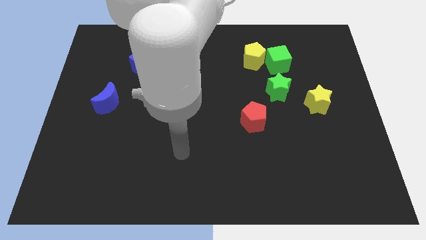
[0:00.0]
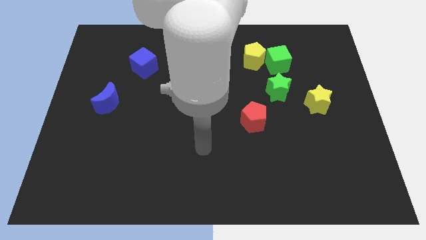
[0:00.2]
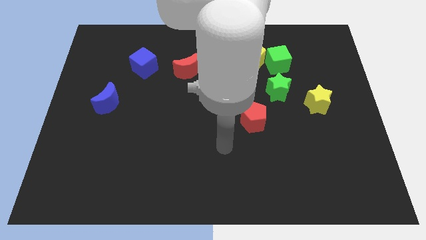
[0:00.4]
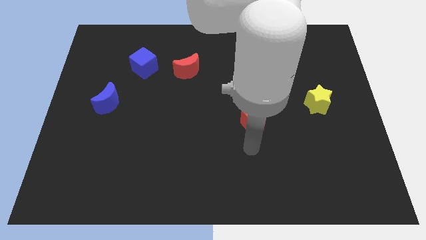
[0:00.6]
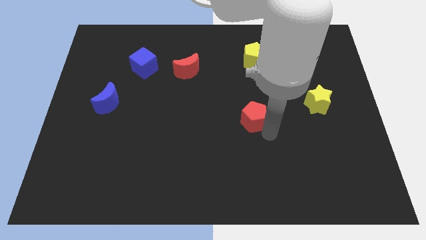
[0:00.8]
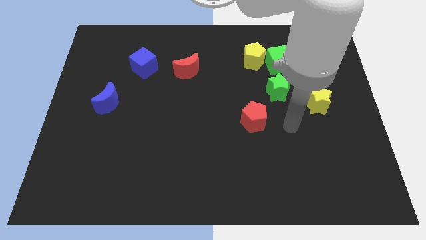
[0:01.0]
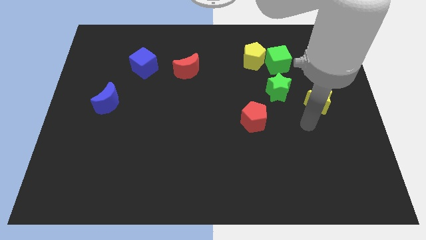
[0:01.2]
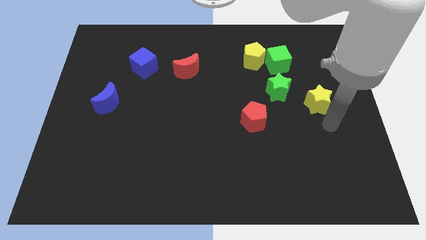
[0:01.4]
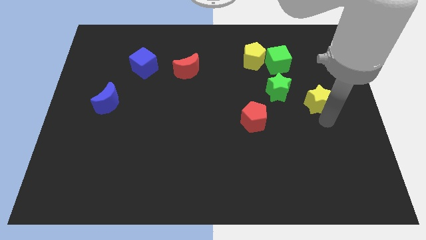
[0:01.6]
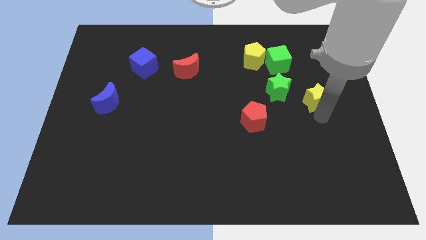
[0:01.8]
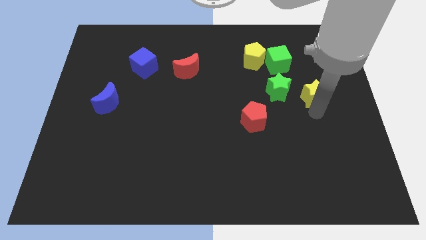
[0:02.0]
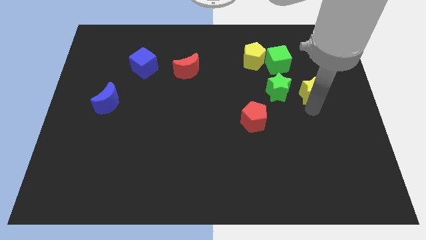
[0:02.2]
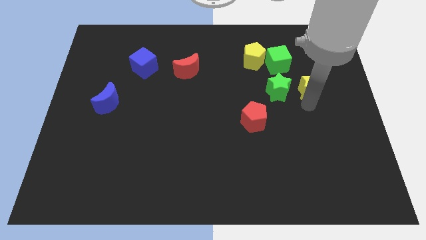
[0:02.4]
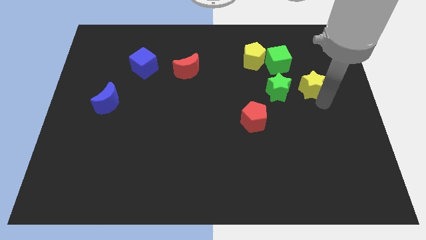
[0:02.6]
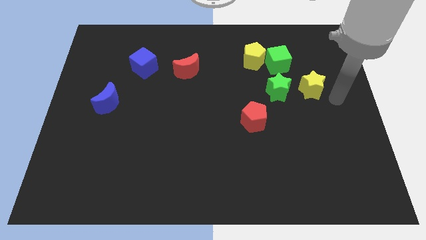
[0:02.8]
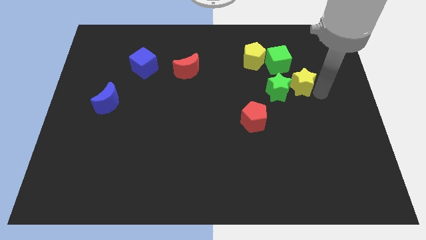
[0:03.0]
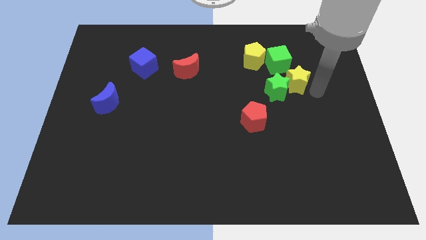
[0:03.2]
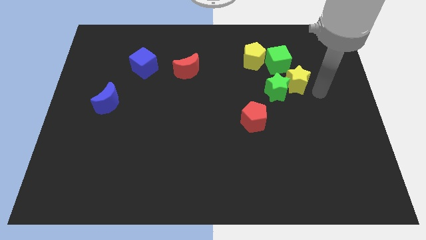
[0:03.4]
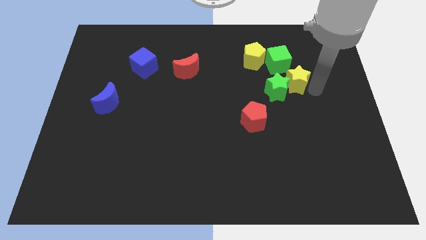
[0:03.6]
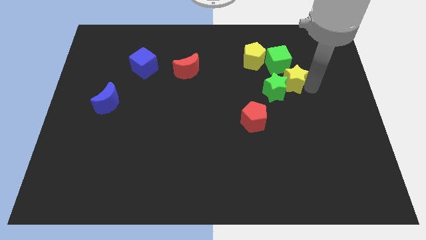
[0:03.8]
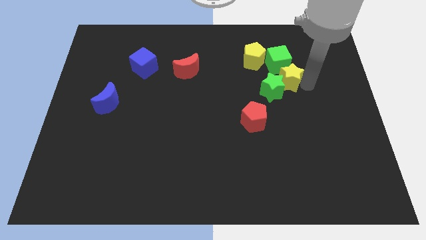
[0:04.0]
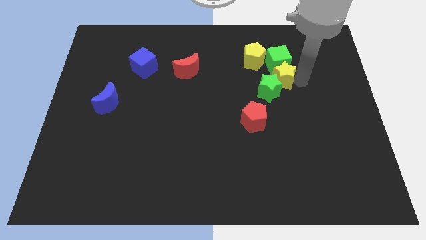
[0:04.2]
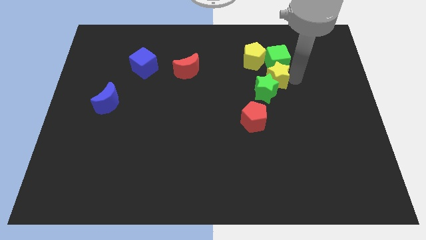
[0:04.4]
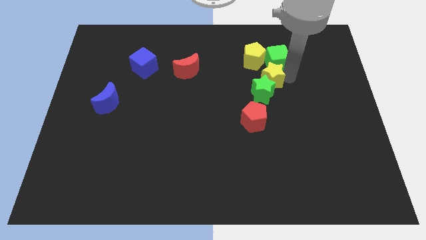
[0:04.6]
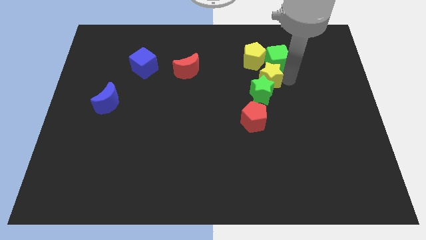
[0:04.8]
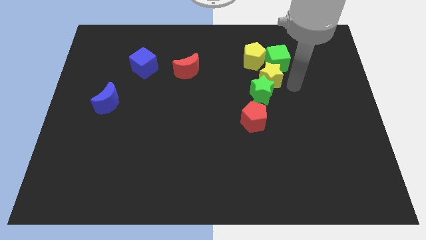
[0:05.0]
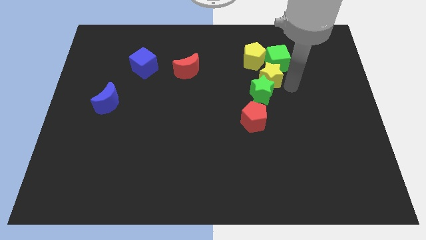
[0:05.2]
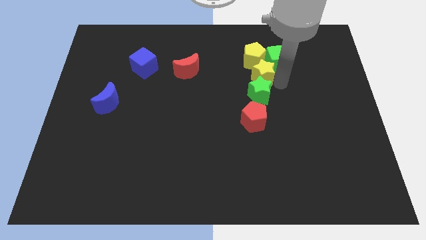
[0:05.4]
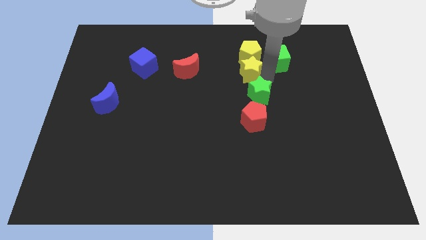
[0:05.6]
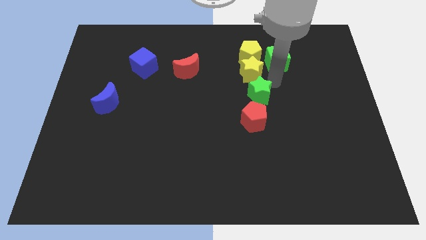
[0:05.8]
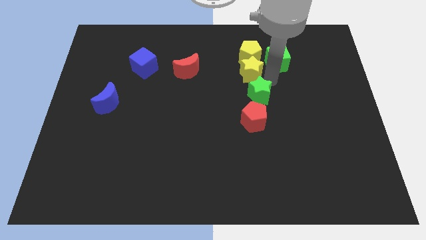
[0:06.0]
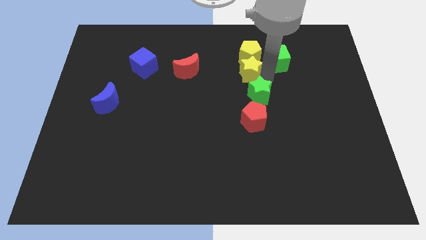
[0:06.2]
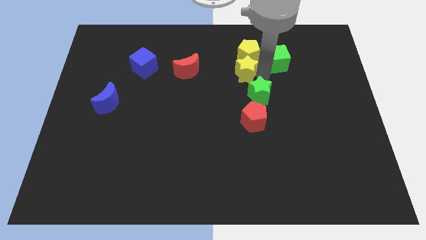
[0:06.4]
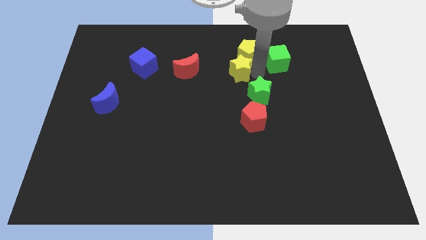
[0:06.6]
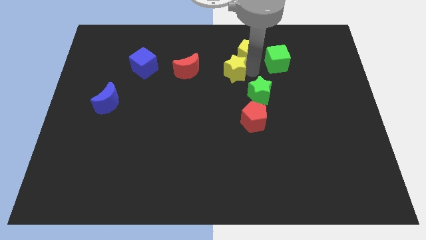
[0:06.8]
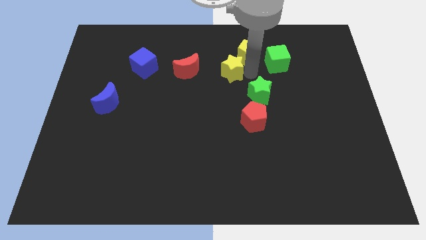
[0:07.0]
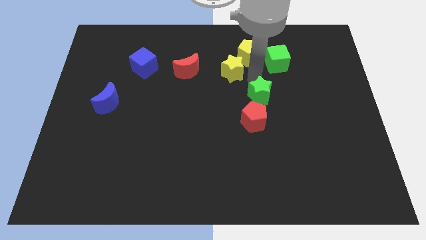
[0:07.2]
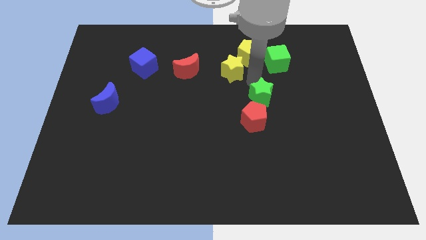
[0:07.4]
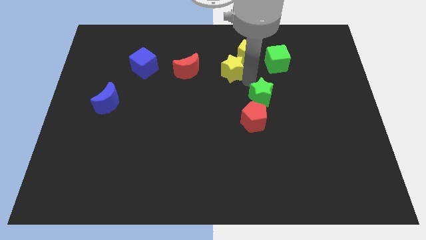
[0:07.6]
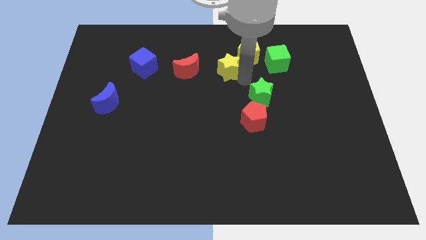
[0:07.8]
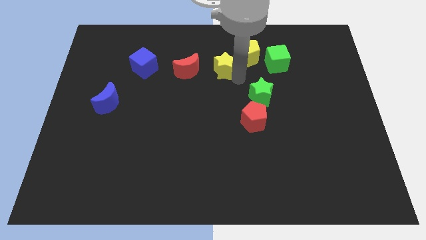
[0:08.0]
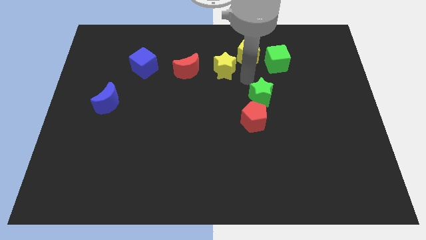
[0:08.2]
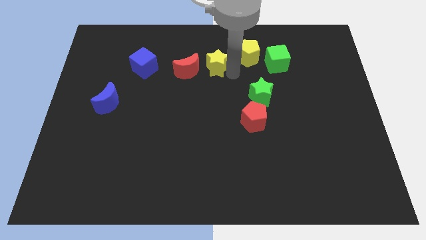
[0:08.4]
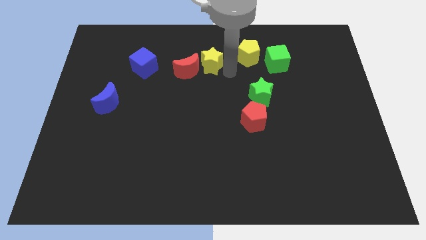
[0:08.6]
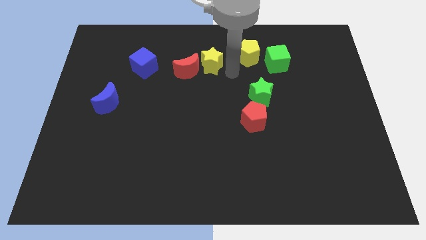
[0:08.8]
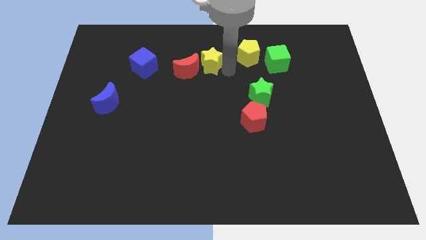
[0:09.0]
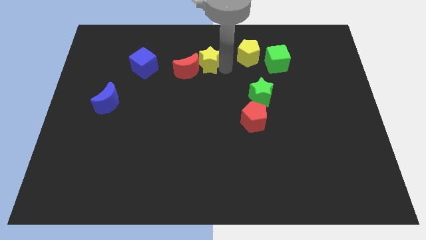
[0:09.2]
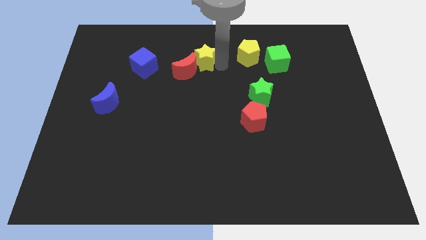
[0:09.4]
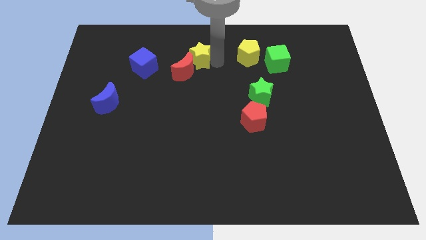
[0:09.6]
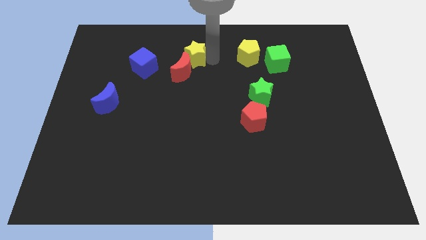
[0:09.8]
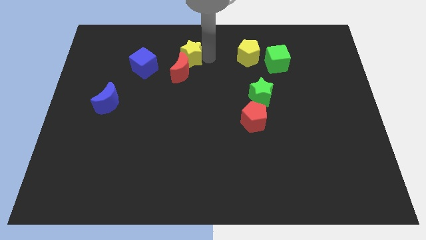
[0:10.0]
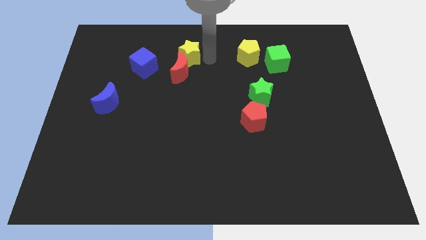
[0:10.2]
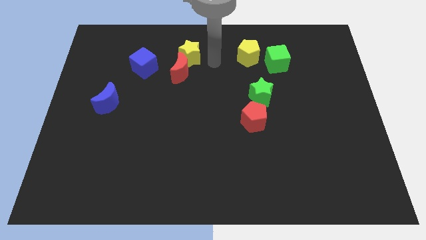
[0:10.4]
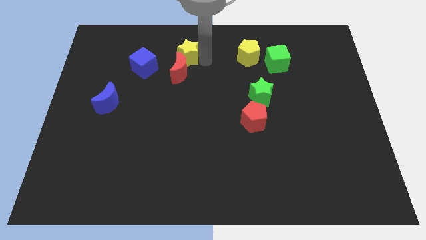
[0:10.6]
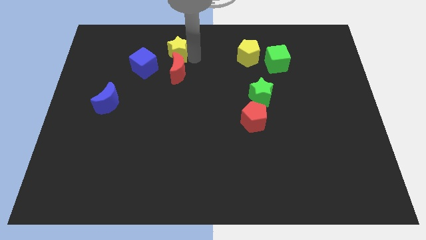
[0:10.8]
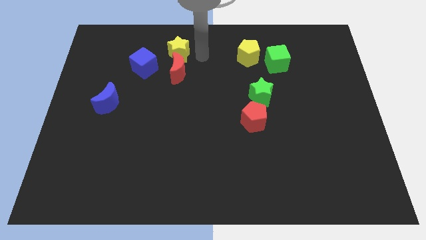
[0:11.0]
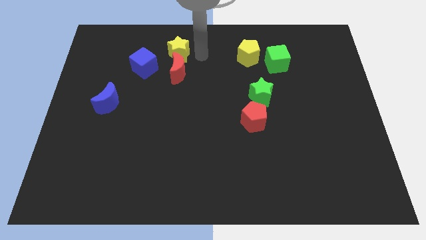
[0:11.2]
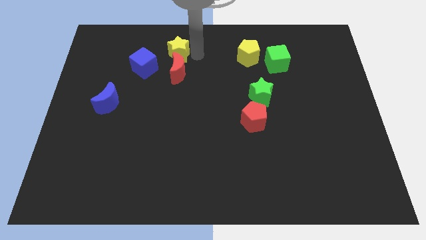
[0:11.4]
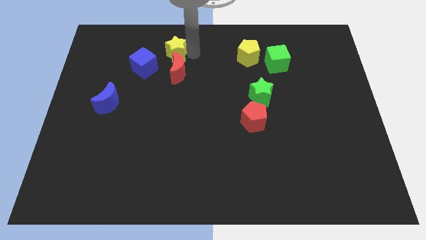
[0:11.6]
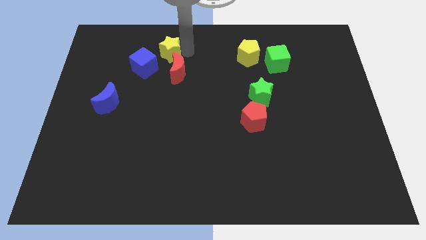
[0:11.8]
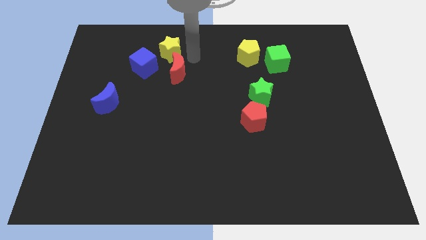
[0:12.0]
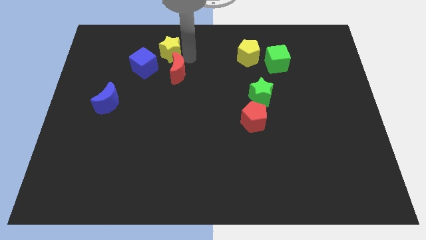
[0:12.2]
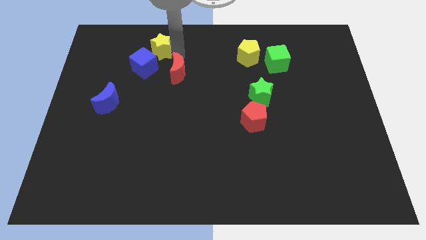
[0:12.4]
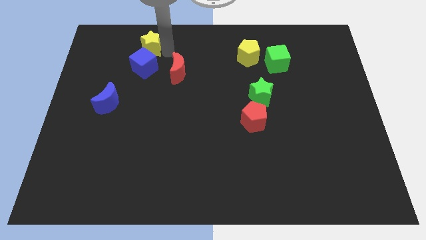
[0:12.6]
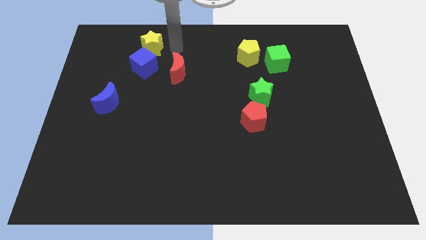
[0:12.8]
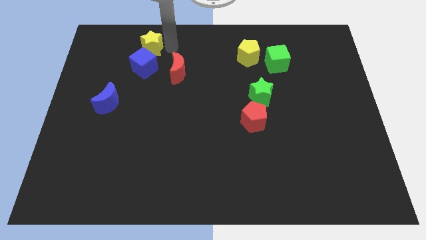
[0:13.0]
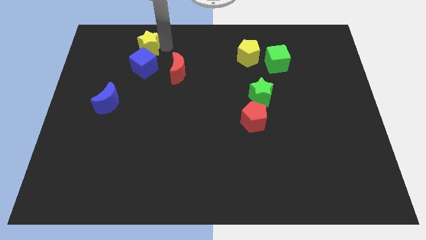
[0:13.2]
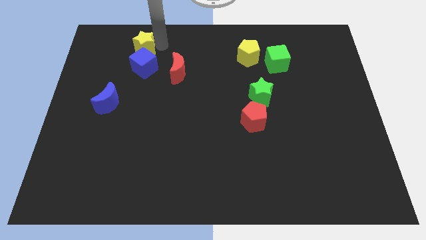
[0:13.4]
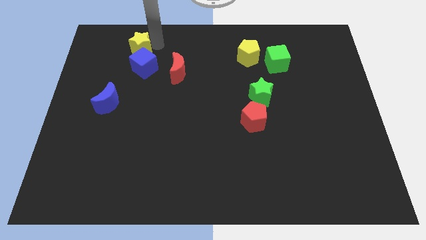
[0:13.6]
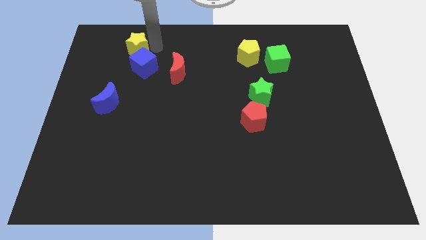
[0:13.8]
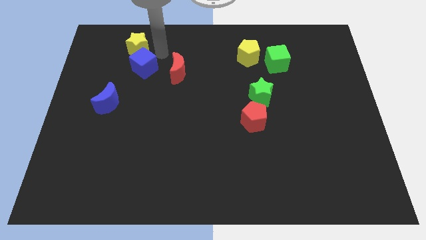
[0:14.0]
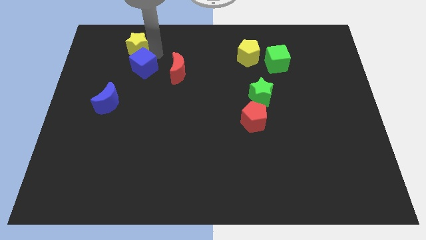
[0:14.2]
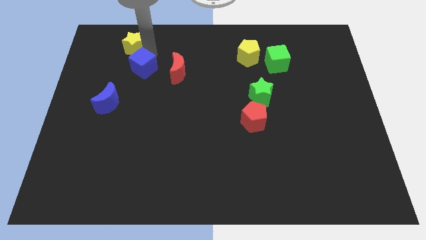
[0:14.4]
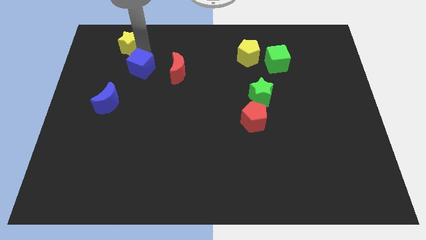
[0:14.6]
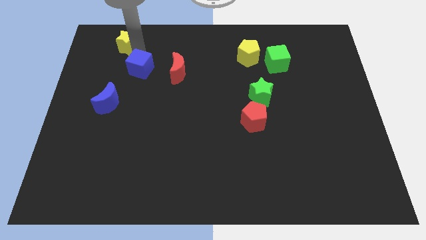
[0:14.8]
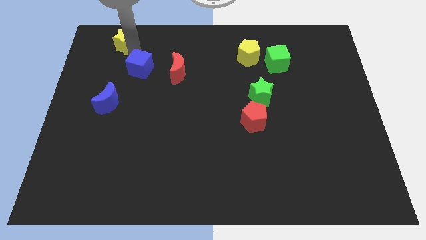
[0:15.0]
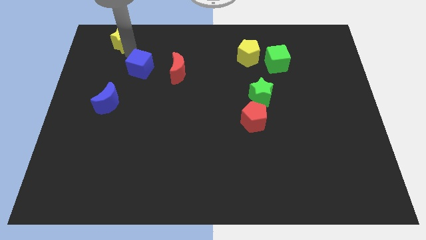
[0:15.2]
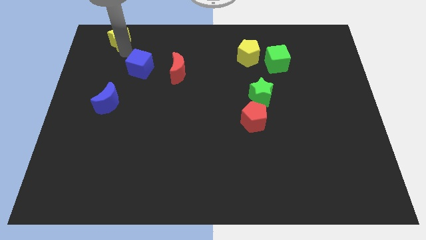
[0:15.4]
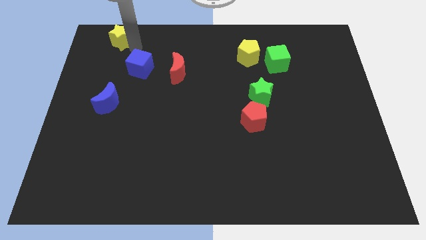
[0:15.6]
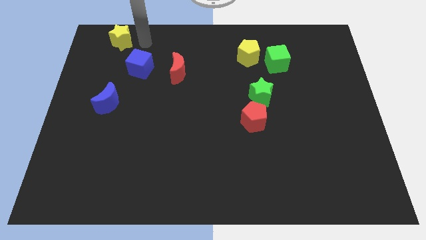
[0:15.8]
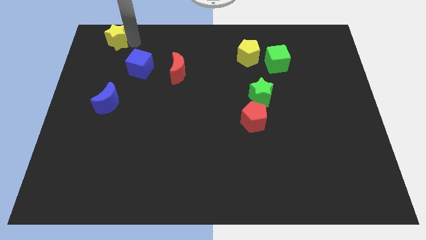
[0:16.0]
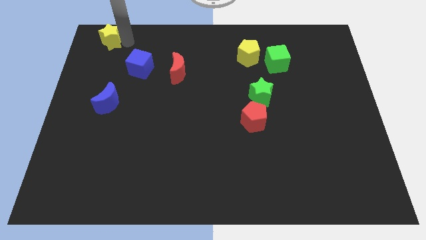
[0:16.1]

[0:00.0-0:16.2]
slide the yellow star to the top left
